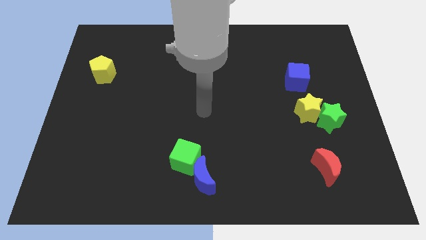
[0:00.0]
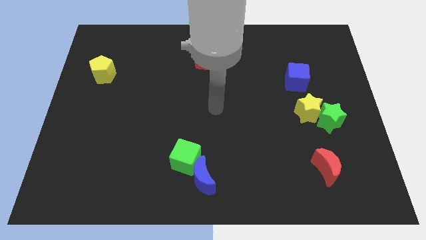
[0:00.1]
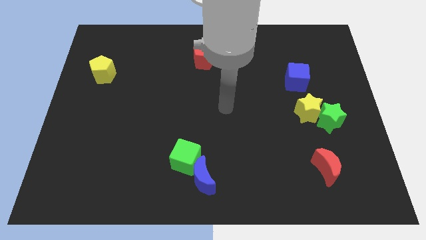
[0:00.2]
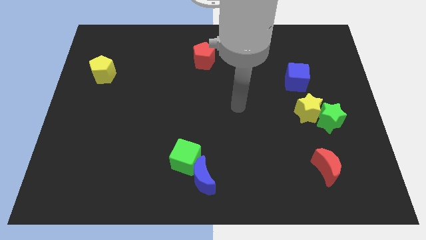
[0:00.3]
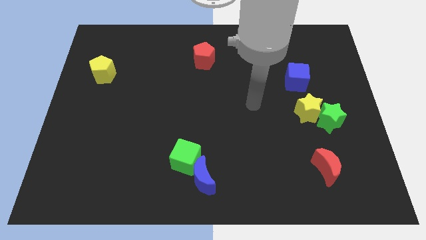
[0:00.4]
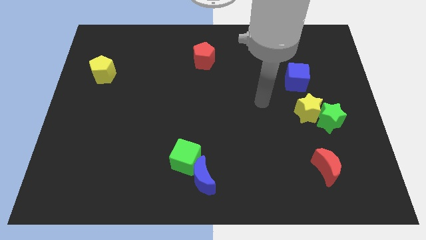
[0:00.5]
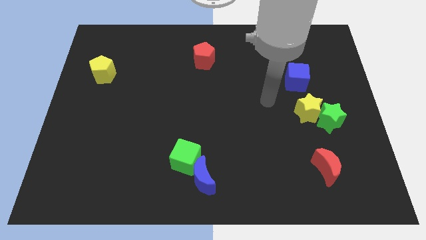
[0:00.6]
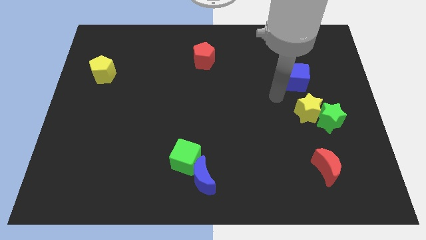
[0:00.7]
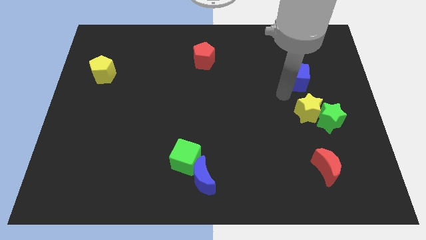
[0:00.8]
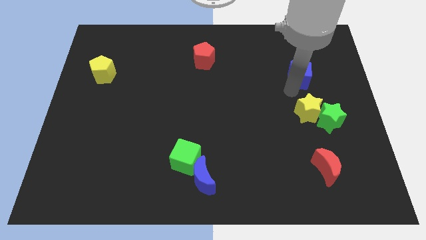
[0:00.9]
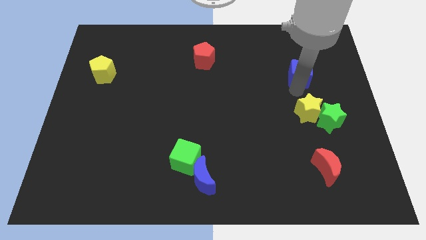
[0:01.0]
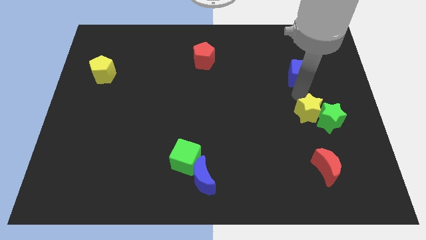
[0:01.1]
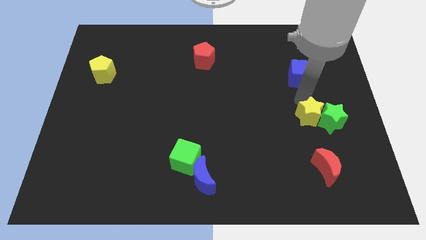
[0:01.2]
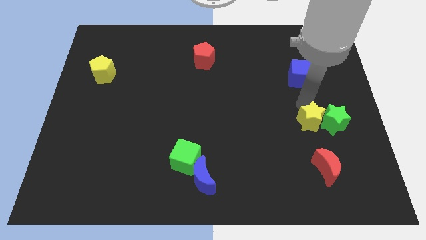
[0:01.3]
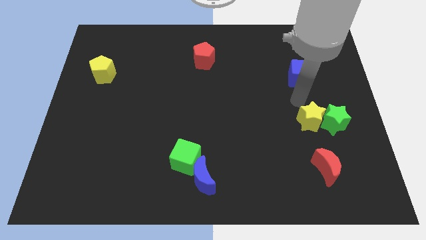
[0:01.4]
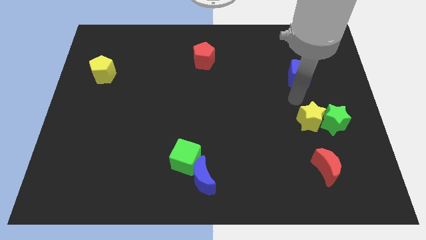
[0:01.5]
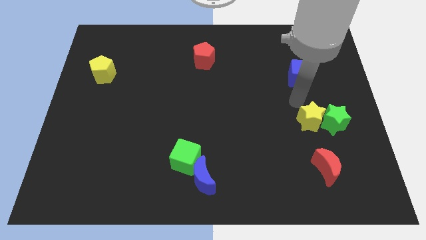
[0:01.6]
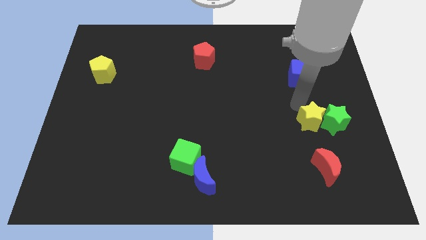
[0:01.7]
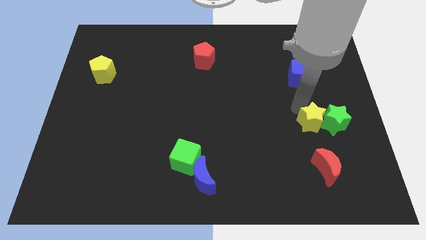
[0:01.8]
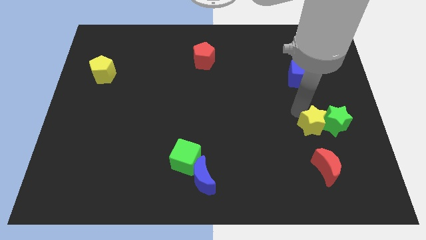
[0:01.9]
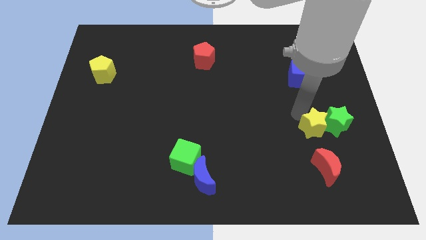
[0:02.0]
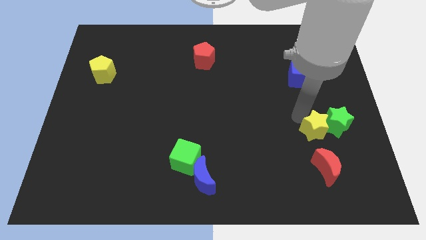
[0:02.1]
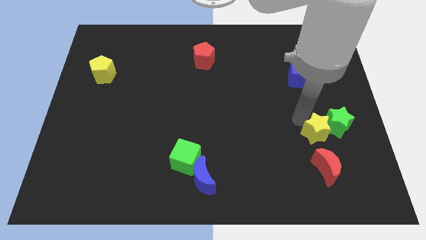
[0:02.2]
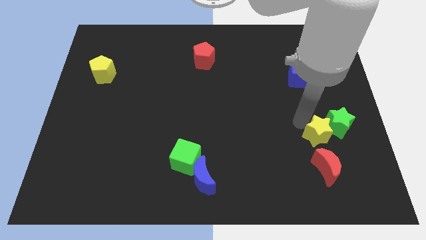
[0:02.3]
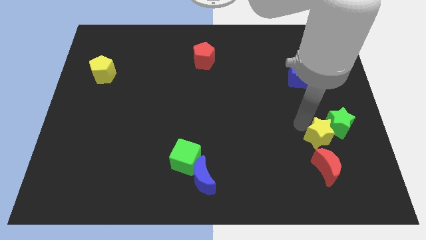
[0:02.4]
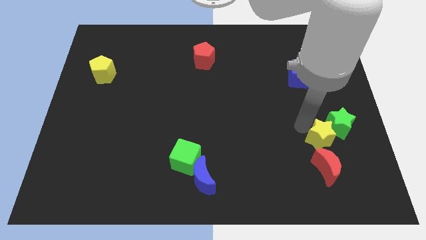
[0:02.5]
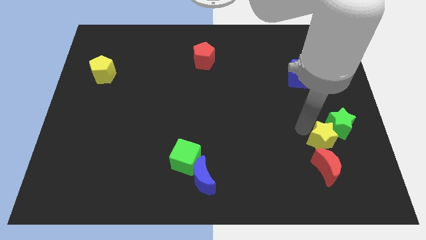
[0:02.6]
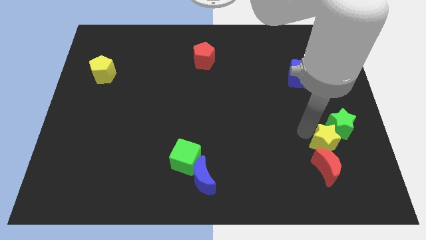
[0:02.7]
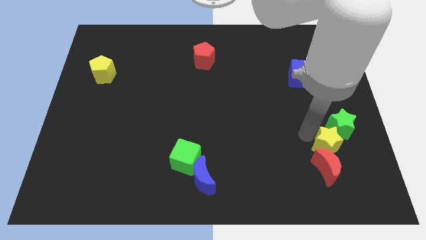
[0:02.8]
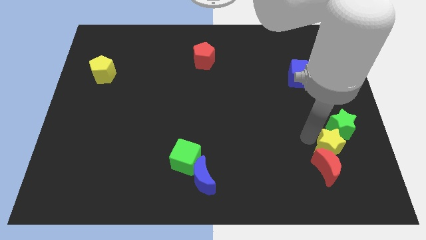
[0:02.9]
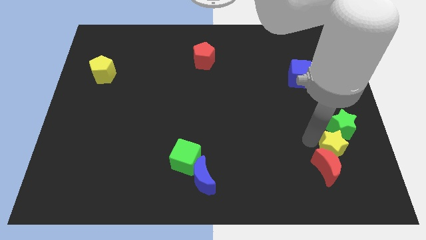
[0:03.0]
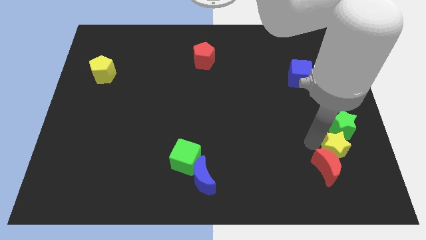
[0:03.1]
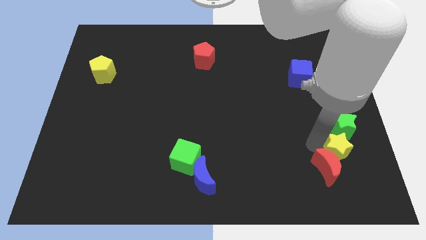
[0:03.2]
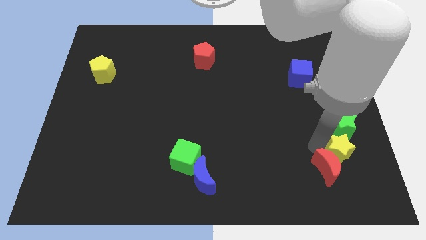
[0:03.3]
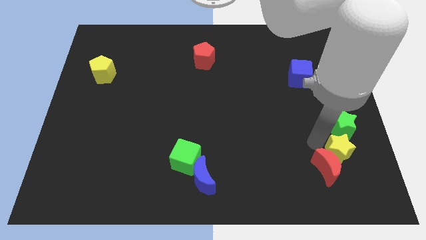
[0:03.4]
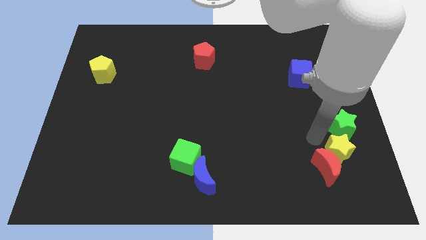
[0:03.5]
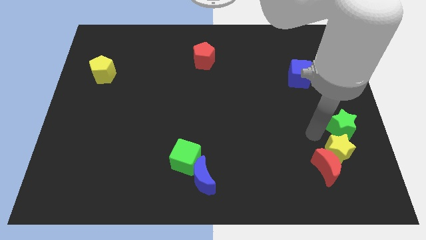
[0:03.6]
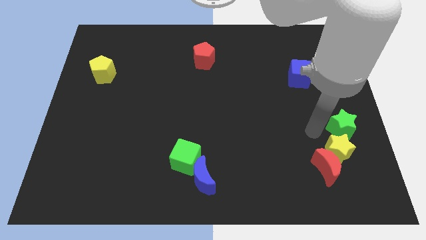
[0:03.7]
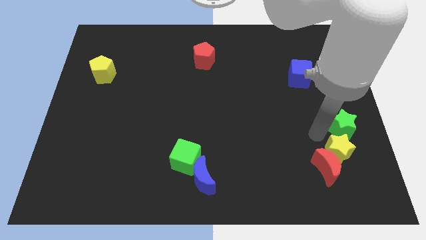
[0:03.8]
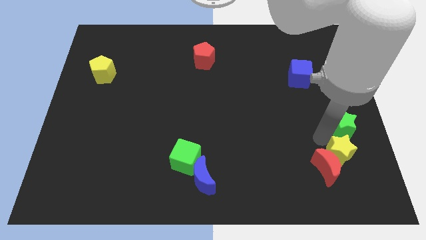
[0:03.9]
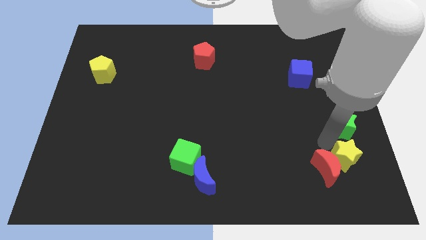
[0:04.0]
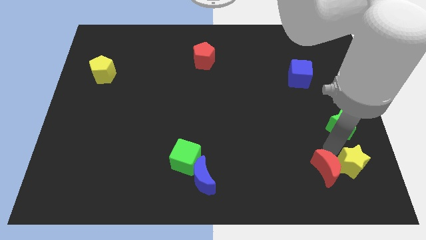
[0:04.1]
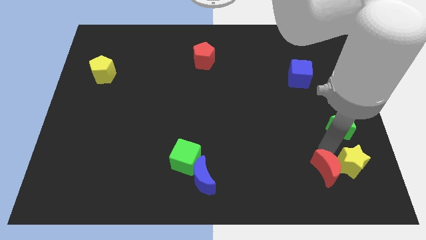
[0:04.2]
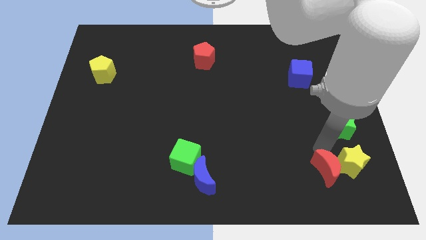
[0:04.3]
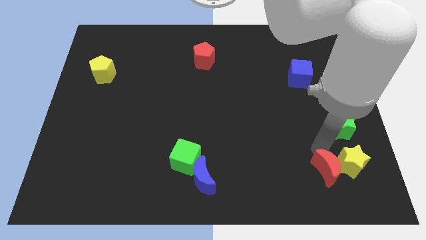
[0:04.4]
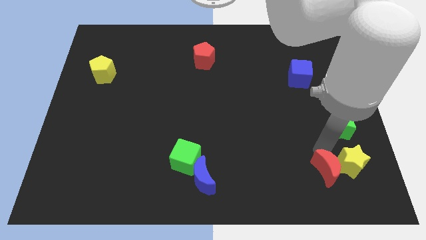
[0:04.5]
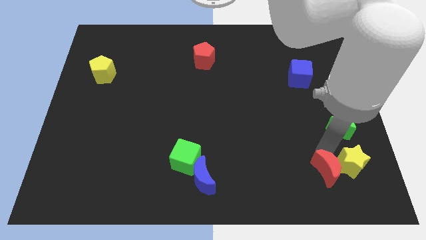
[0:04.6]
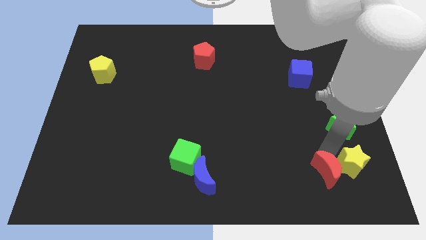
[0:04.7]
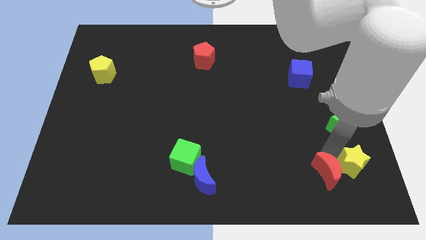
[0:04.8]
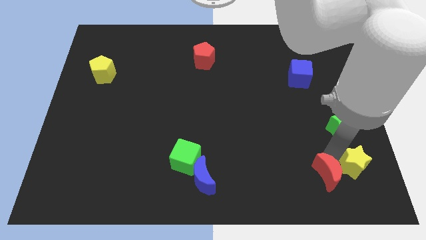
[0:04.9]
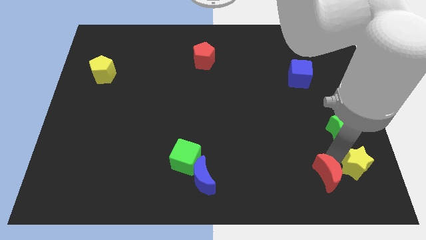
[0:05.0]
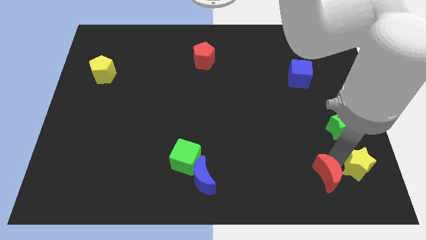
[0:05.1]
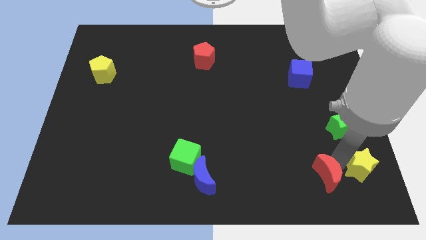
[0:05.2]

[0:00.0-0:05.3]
put the yellow star to the lower right corner

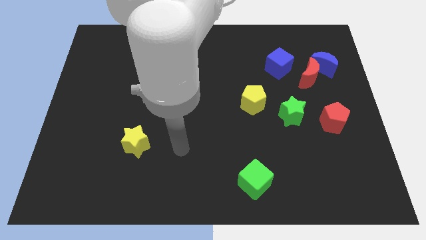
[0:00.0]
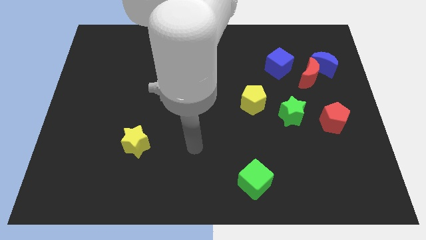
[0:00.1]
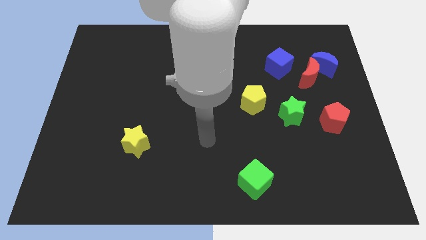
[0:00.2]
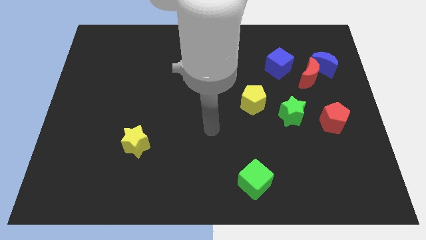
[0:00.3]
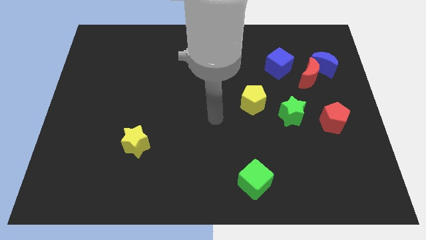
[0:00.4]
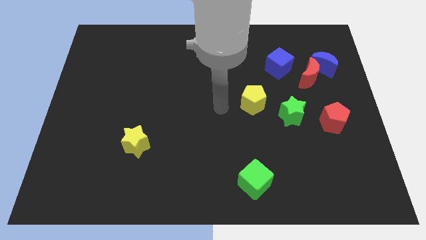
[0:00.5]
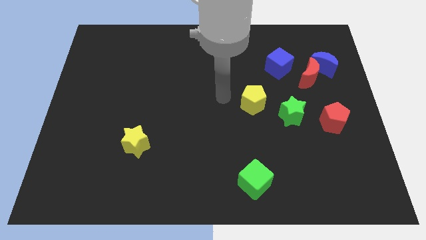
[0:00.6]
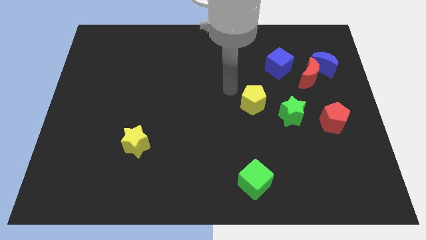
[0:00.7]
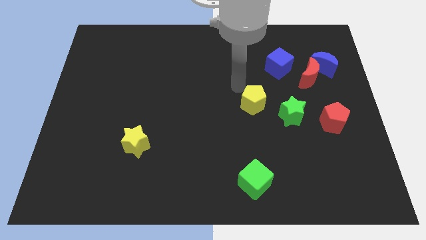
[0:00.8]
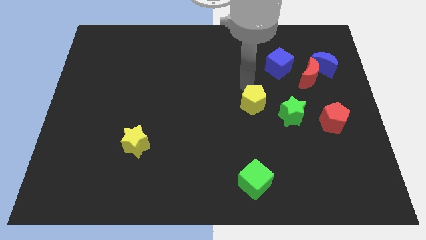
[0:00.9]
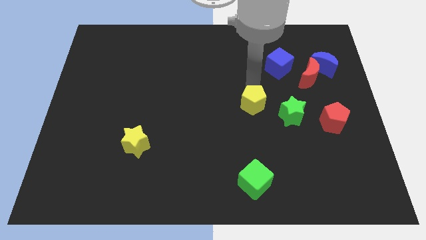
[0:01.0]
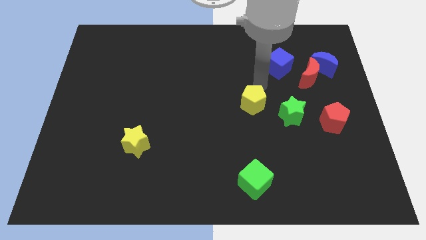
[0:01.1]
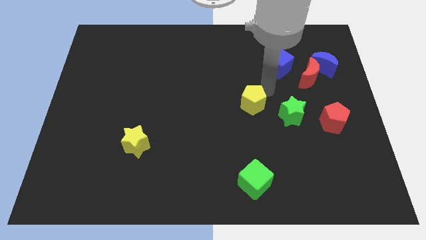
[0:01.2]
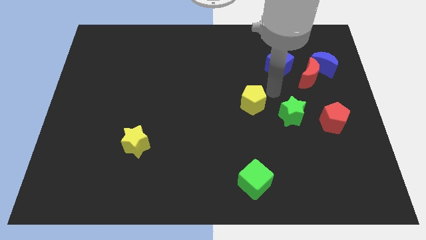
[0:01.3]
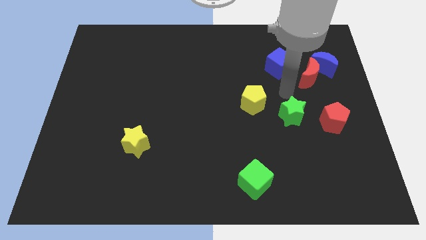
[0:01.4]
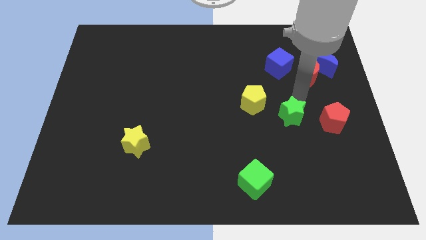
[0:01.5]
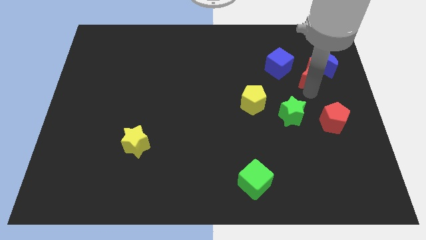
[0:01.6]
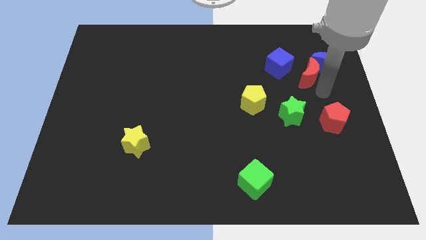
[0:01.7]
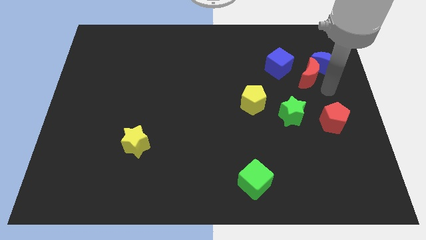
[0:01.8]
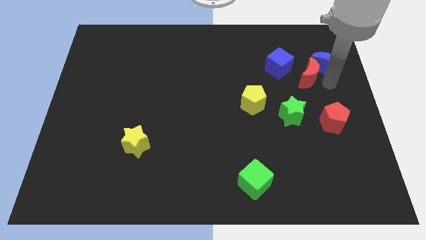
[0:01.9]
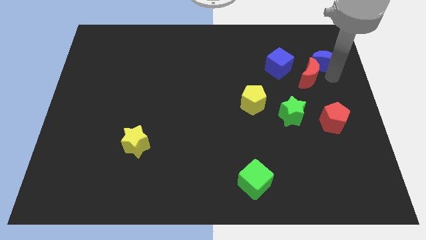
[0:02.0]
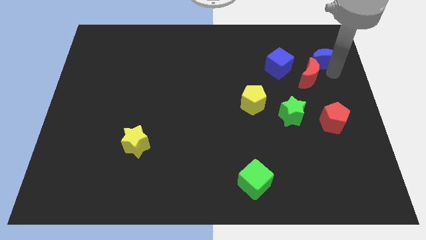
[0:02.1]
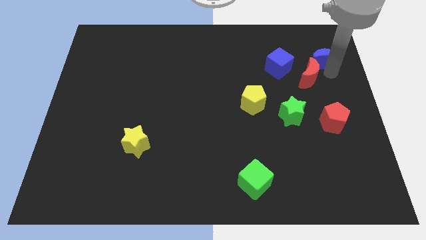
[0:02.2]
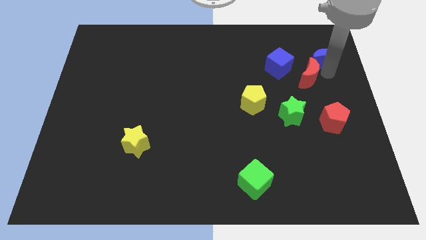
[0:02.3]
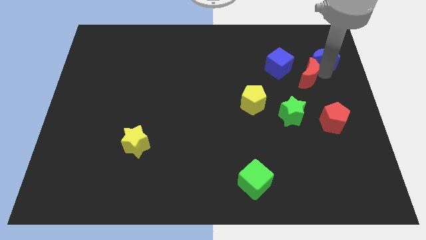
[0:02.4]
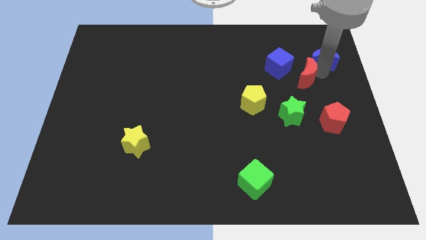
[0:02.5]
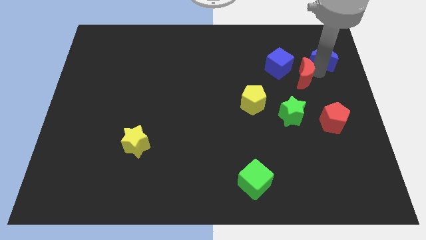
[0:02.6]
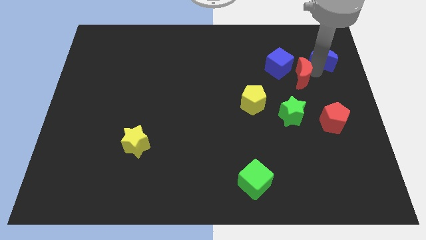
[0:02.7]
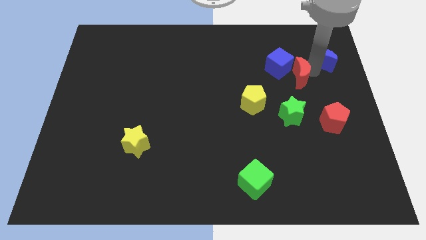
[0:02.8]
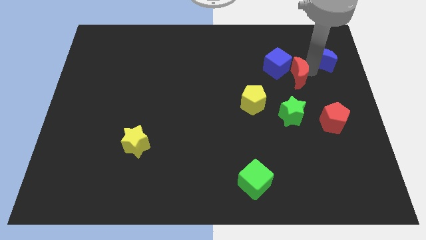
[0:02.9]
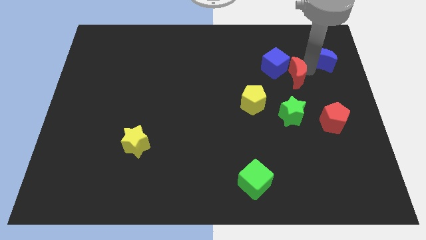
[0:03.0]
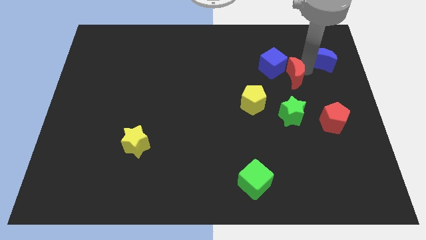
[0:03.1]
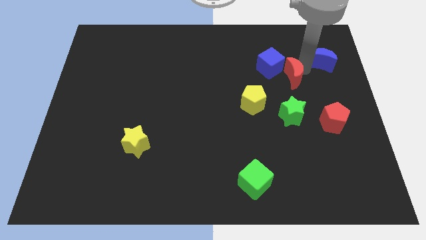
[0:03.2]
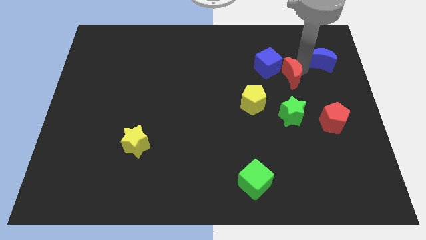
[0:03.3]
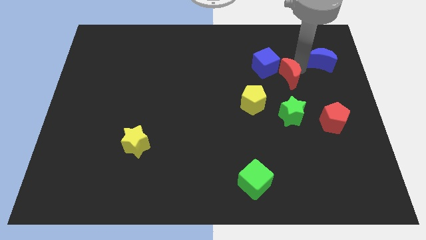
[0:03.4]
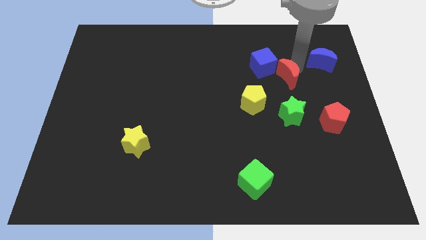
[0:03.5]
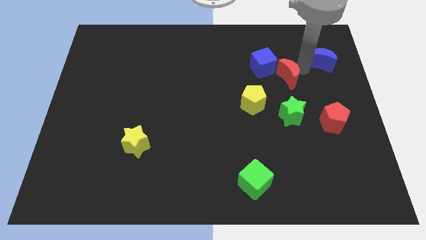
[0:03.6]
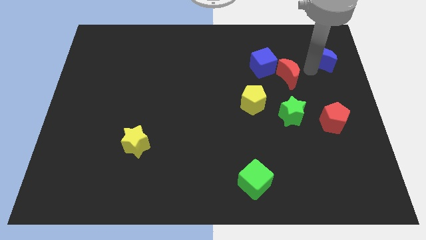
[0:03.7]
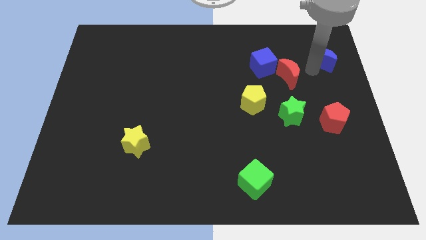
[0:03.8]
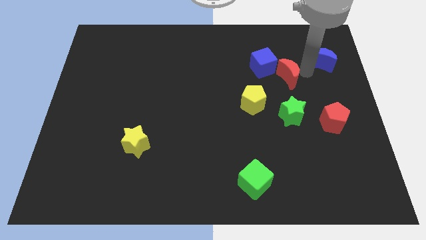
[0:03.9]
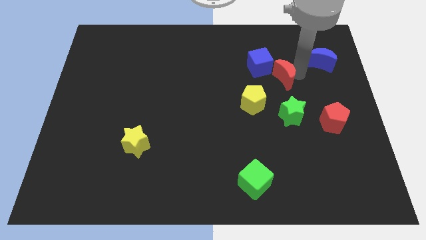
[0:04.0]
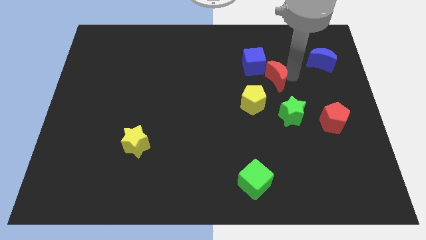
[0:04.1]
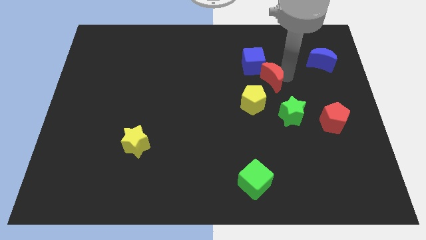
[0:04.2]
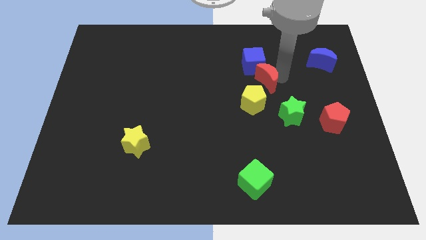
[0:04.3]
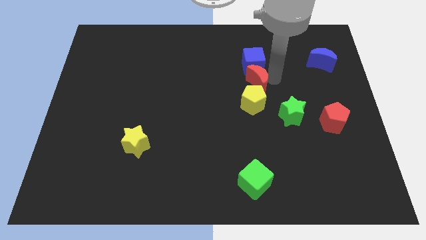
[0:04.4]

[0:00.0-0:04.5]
push the red moon to the middle of the board
